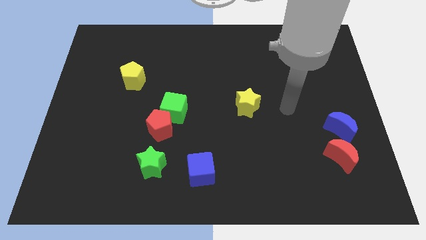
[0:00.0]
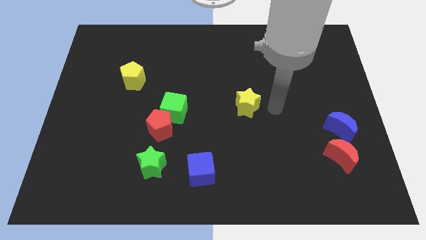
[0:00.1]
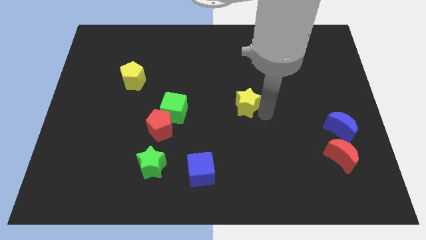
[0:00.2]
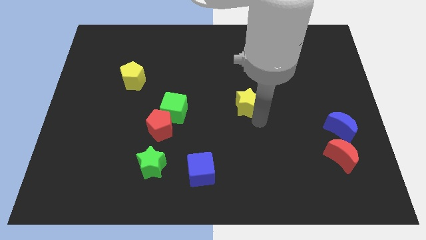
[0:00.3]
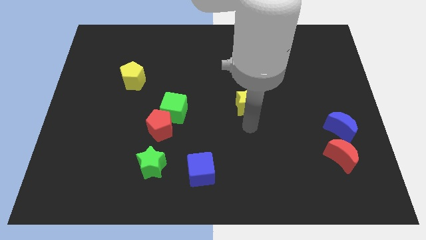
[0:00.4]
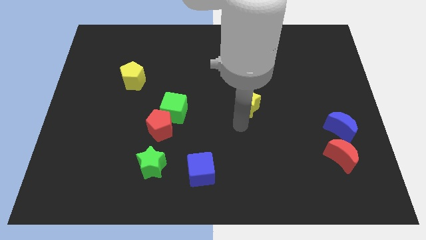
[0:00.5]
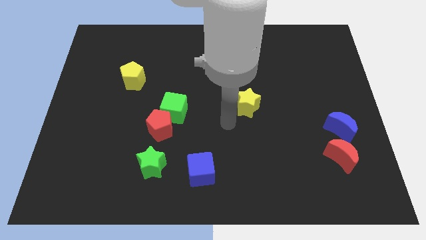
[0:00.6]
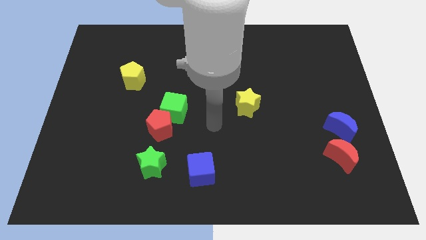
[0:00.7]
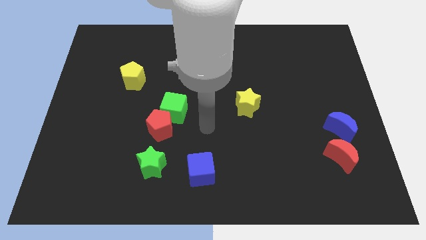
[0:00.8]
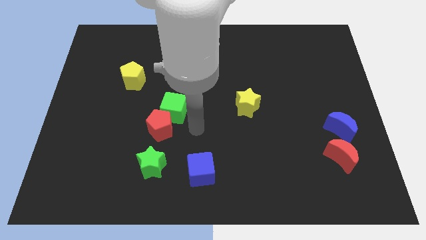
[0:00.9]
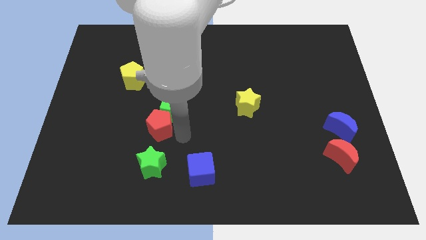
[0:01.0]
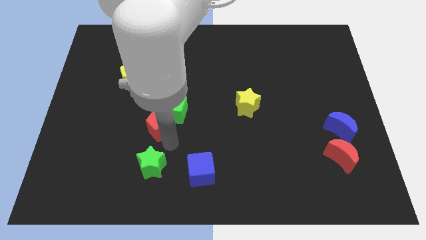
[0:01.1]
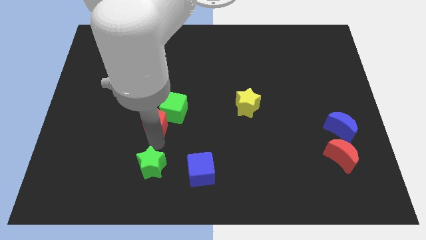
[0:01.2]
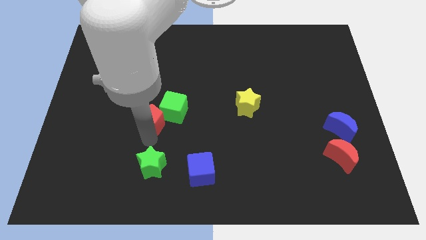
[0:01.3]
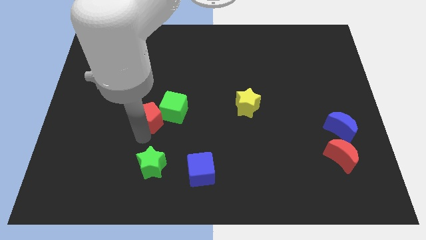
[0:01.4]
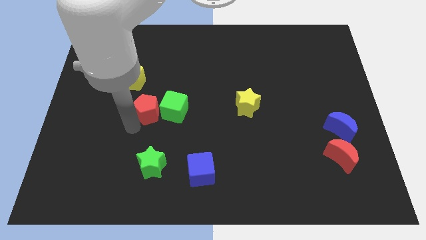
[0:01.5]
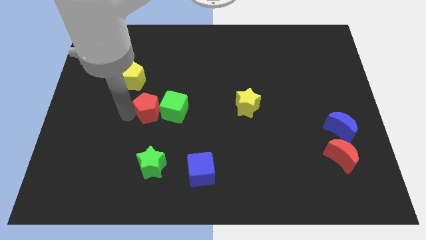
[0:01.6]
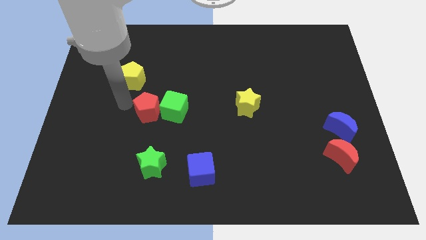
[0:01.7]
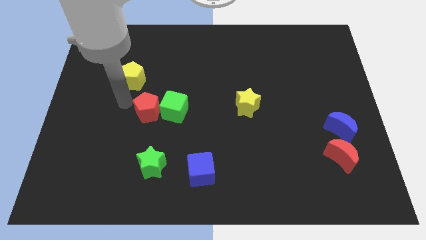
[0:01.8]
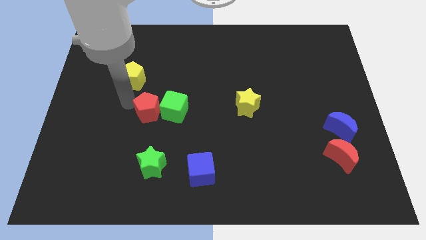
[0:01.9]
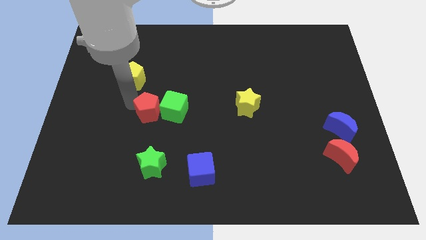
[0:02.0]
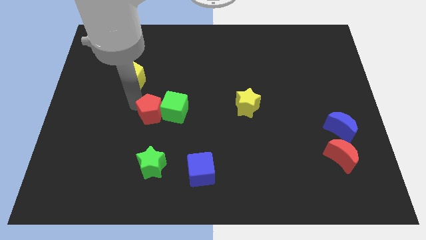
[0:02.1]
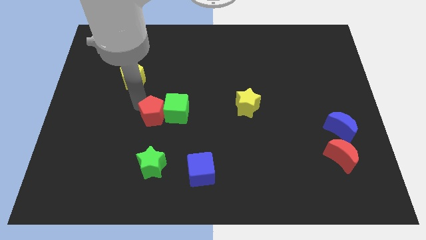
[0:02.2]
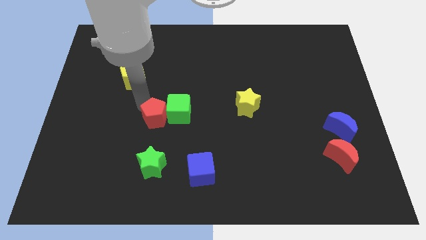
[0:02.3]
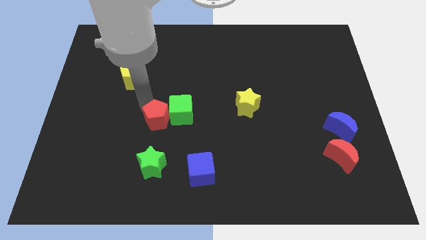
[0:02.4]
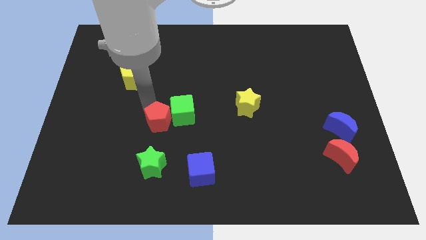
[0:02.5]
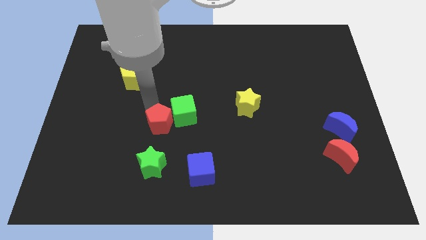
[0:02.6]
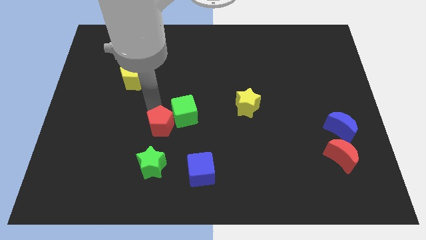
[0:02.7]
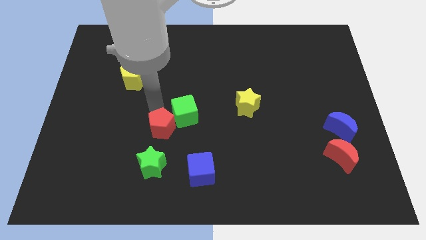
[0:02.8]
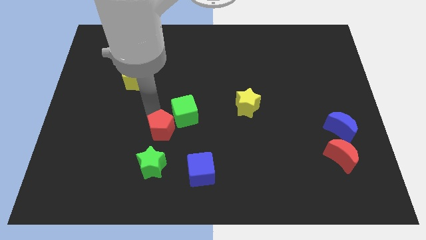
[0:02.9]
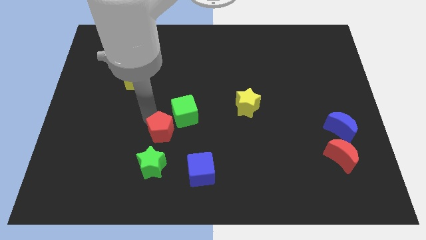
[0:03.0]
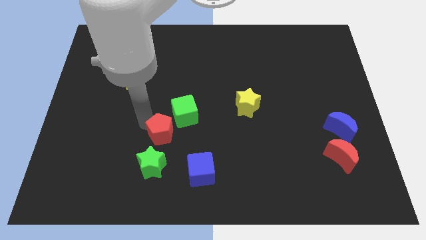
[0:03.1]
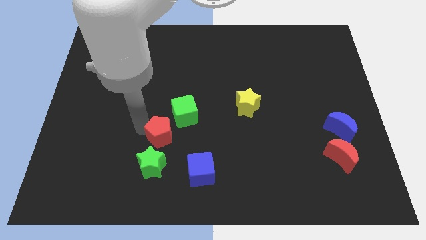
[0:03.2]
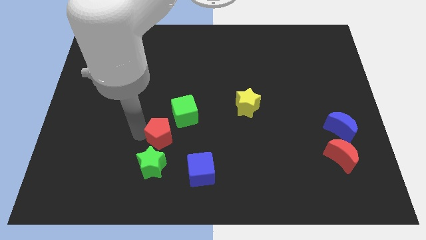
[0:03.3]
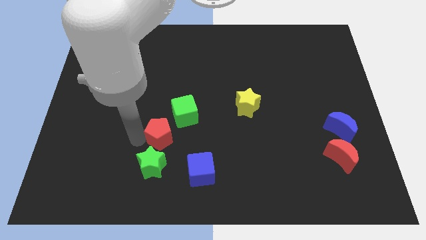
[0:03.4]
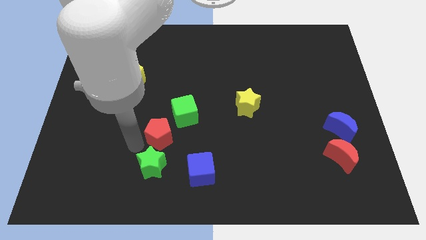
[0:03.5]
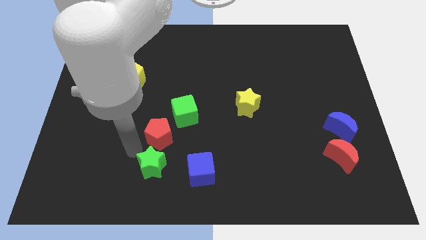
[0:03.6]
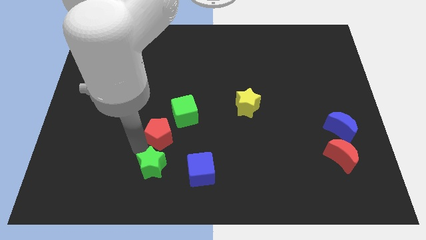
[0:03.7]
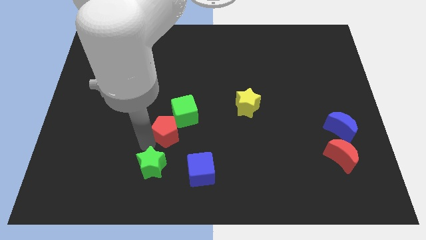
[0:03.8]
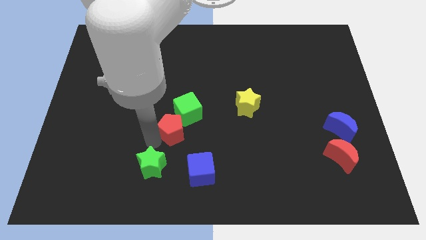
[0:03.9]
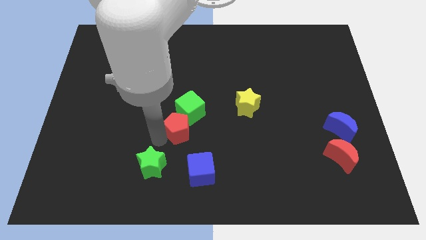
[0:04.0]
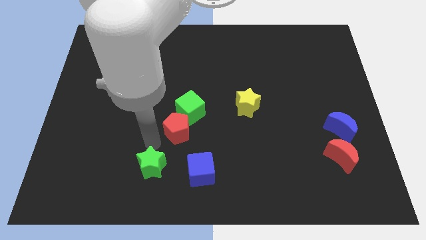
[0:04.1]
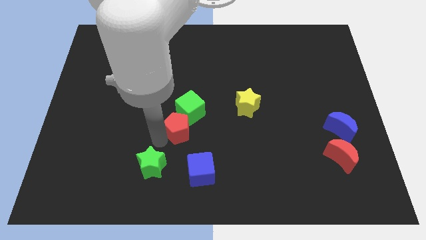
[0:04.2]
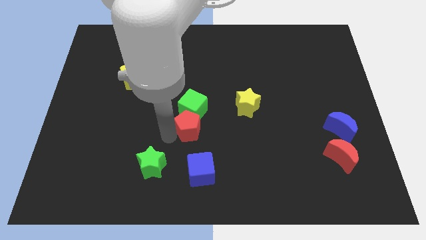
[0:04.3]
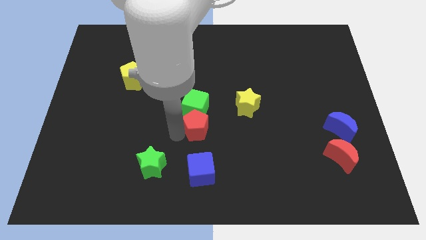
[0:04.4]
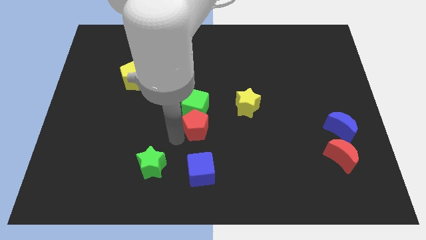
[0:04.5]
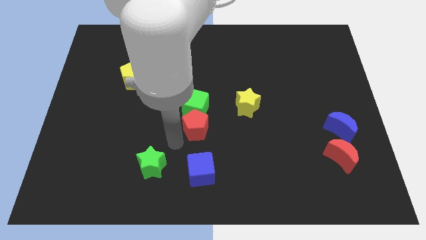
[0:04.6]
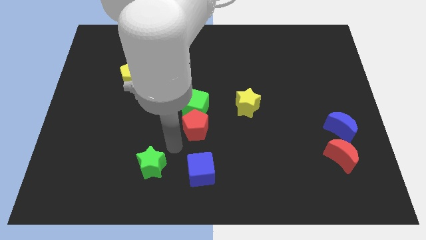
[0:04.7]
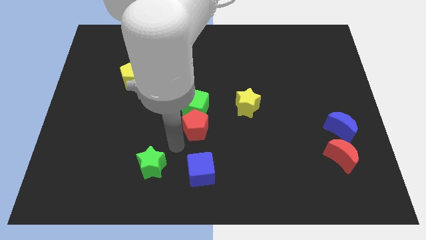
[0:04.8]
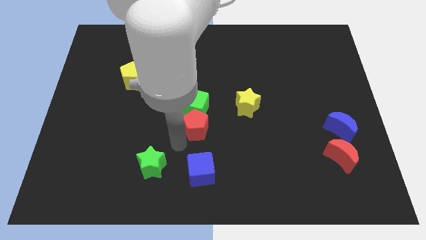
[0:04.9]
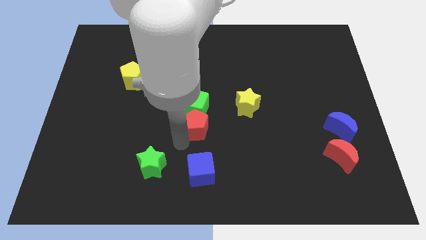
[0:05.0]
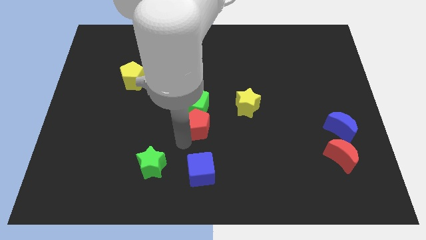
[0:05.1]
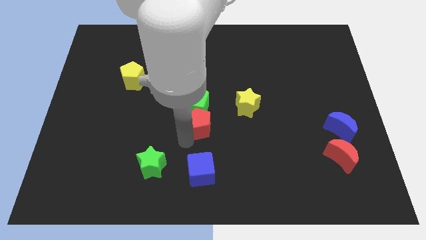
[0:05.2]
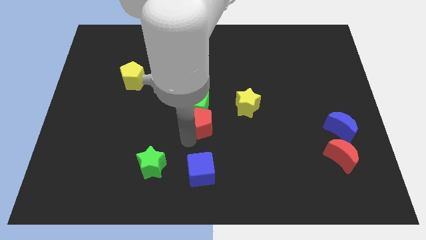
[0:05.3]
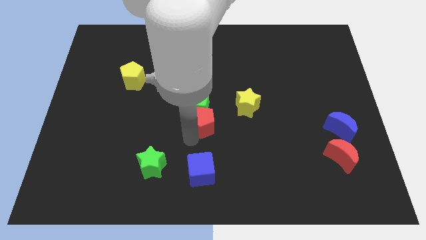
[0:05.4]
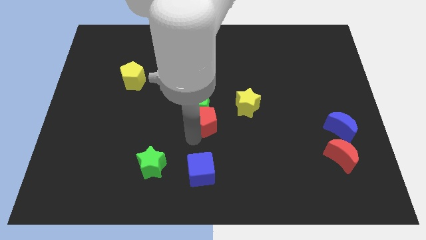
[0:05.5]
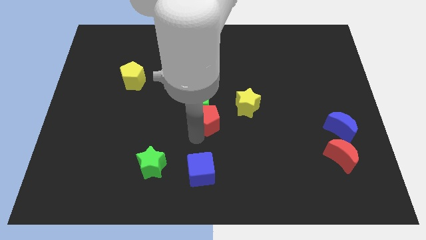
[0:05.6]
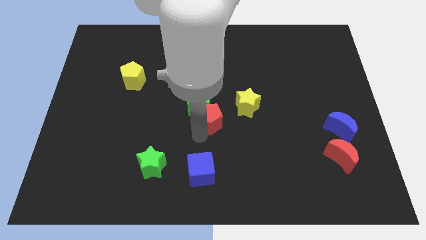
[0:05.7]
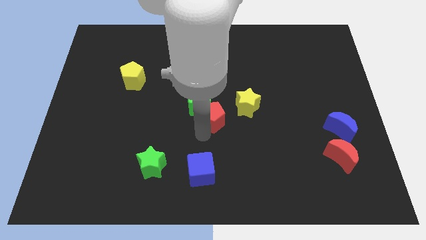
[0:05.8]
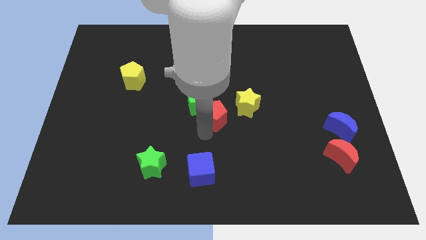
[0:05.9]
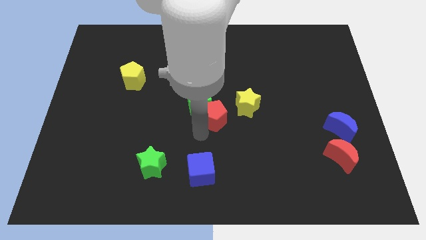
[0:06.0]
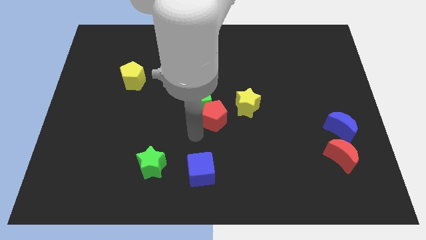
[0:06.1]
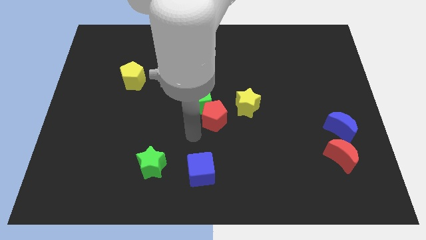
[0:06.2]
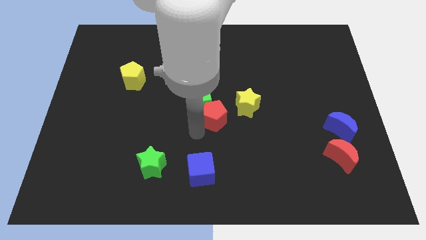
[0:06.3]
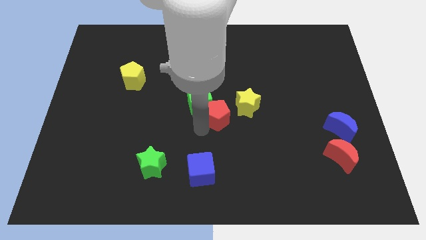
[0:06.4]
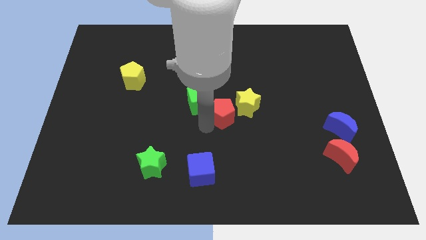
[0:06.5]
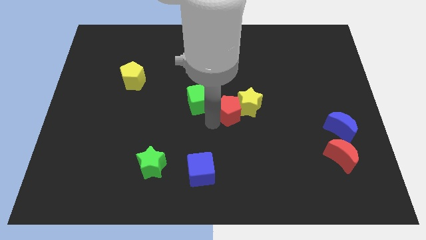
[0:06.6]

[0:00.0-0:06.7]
slide the red pentagon close to the yellow star

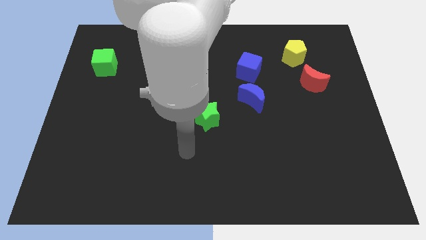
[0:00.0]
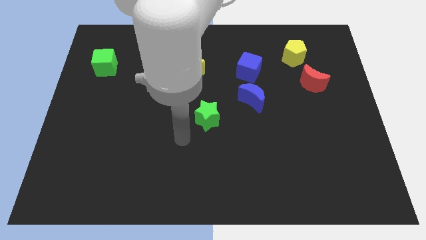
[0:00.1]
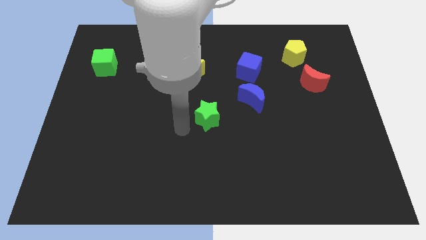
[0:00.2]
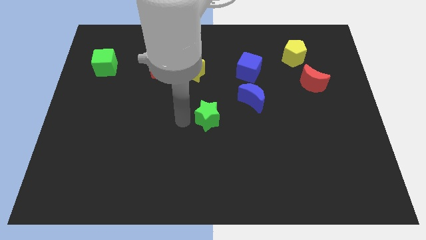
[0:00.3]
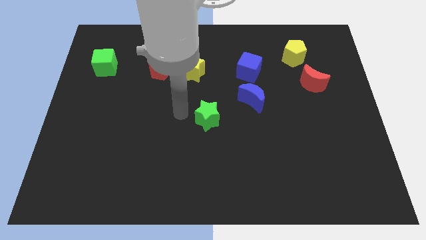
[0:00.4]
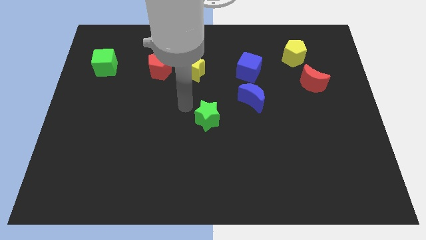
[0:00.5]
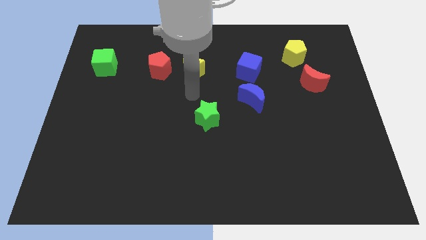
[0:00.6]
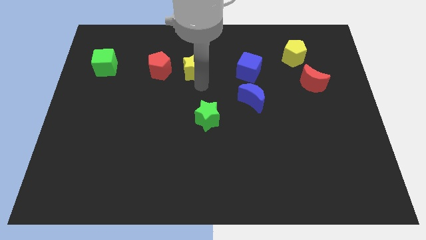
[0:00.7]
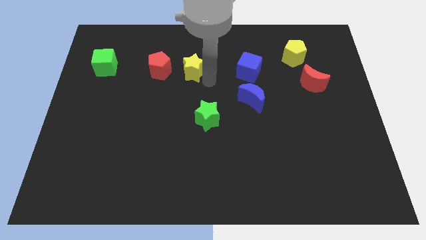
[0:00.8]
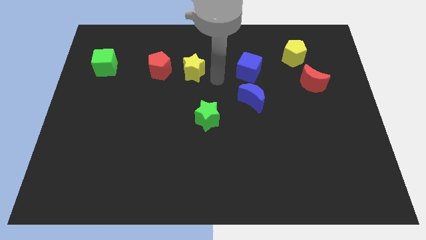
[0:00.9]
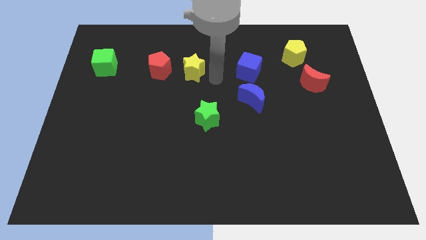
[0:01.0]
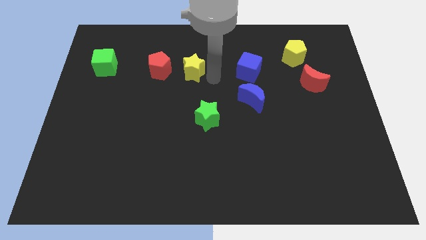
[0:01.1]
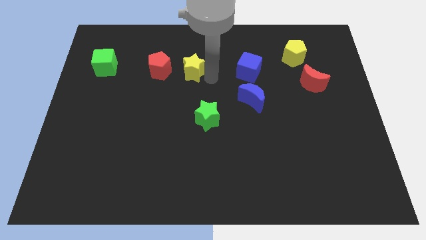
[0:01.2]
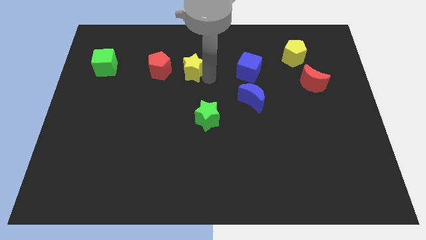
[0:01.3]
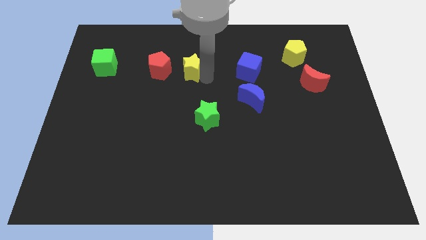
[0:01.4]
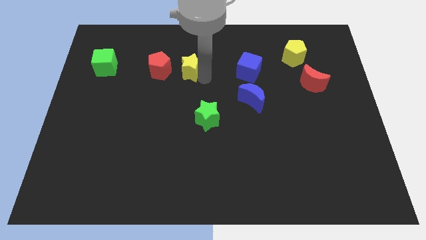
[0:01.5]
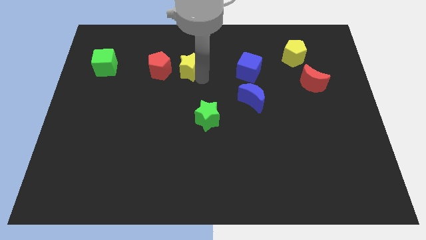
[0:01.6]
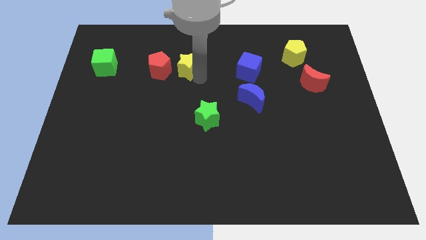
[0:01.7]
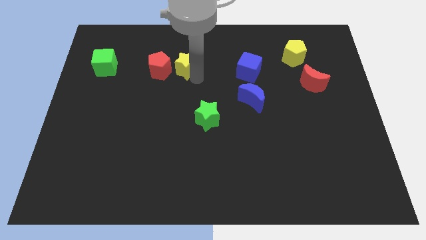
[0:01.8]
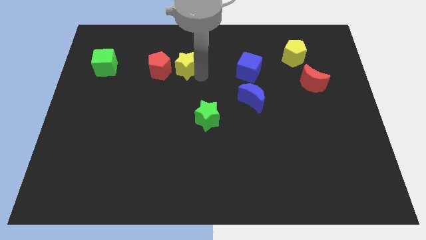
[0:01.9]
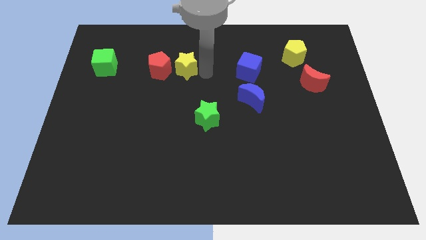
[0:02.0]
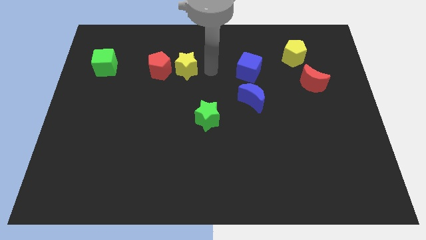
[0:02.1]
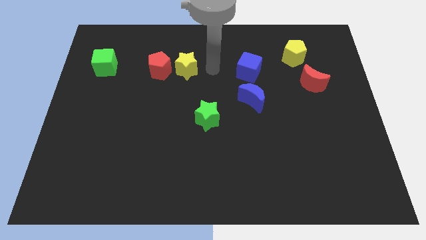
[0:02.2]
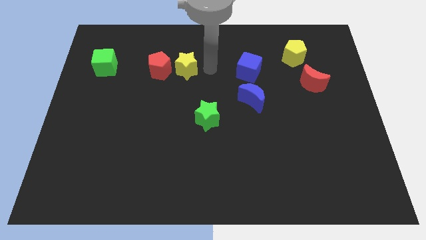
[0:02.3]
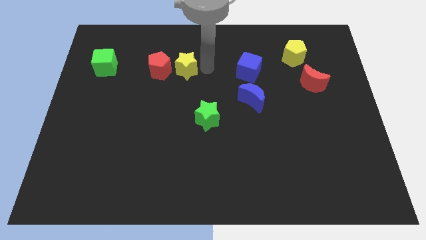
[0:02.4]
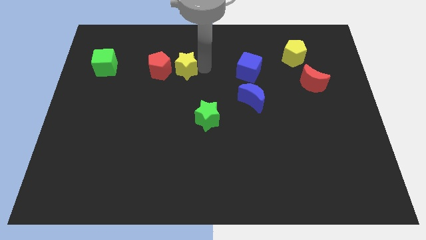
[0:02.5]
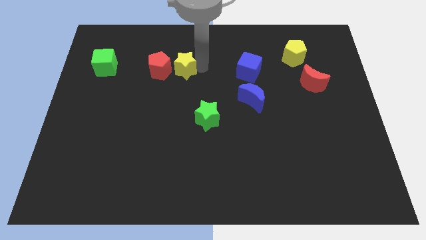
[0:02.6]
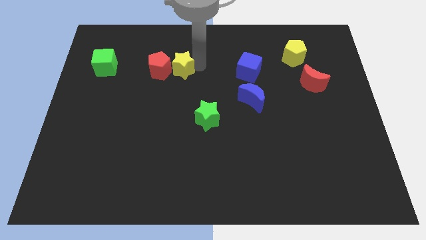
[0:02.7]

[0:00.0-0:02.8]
move the yellow star next to the red pentagon
